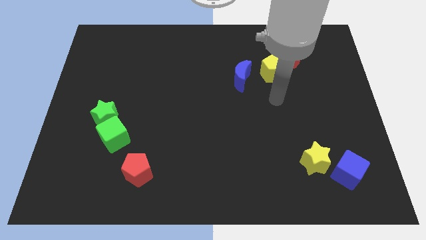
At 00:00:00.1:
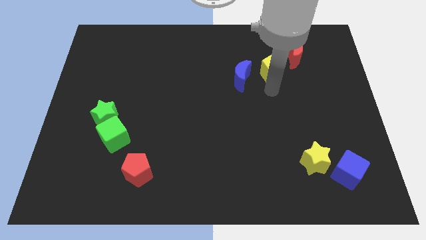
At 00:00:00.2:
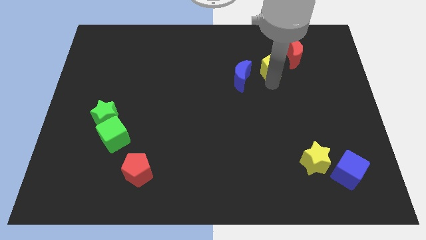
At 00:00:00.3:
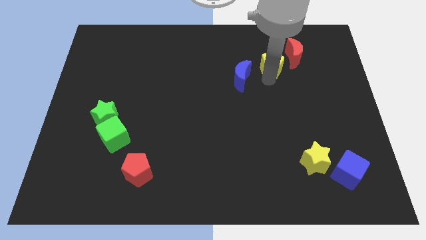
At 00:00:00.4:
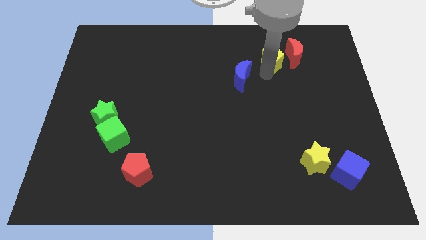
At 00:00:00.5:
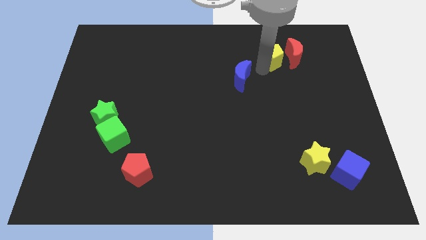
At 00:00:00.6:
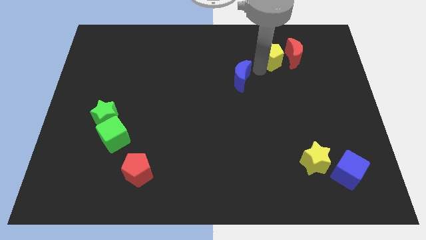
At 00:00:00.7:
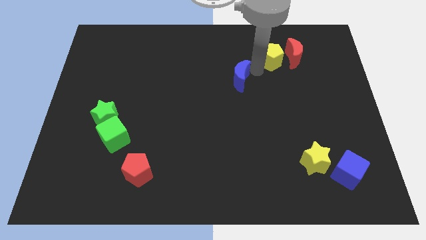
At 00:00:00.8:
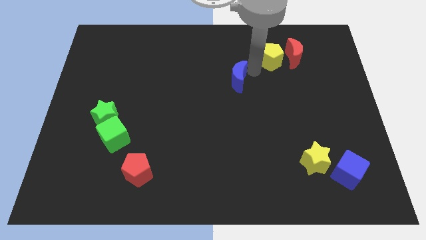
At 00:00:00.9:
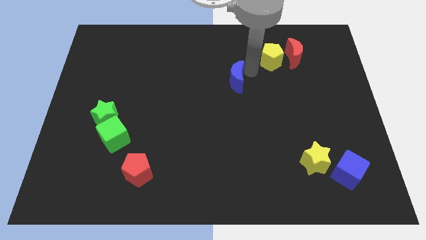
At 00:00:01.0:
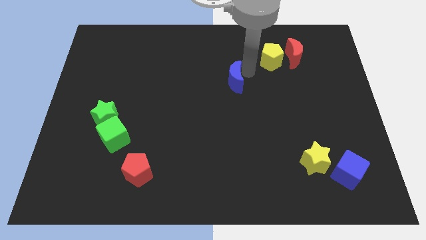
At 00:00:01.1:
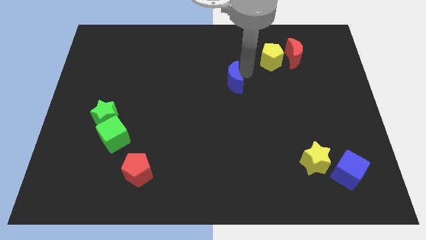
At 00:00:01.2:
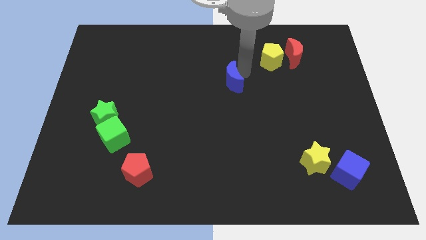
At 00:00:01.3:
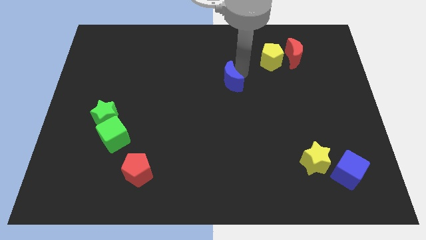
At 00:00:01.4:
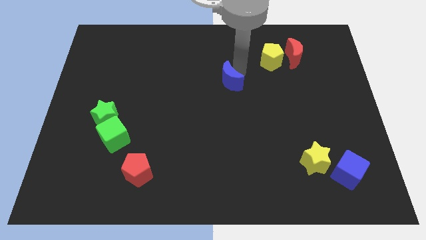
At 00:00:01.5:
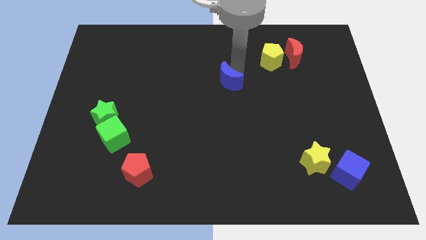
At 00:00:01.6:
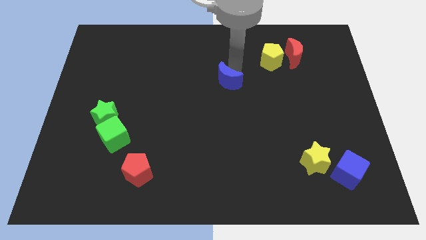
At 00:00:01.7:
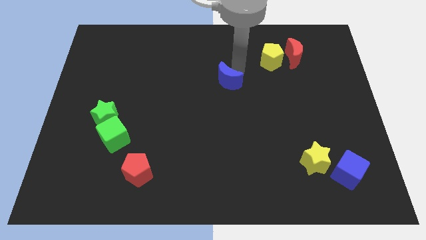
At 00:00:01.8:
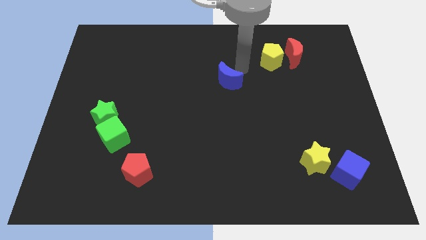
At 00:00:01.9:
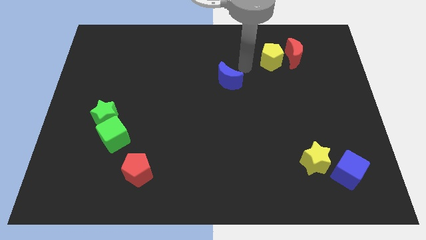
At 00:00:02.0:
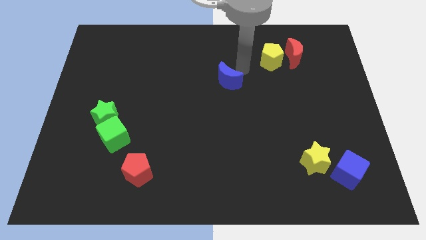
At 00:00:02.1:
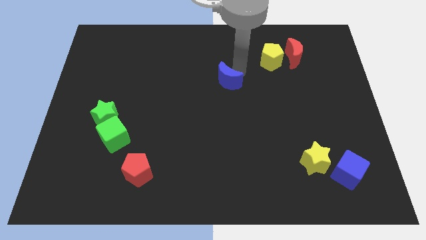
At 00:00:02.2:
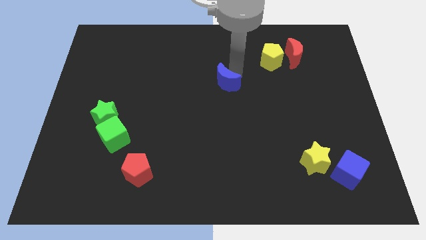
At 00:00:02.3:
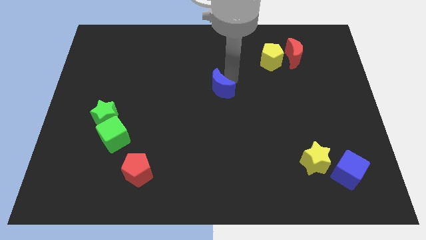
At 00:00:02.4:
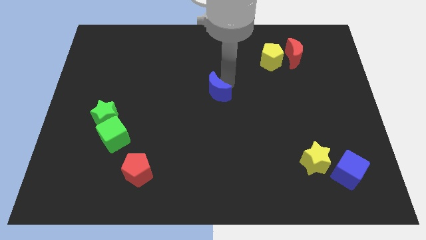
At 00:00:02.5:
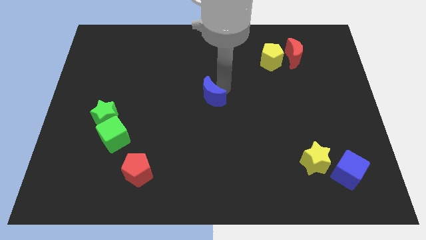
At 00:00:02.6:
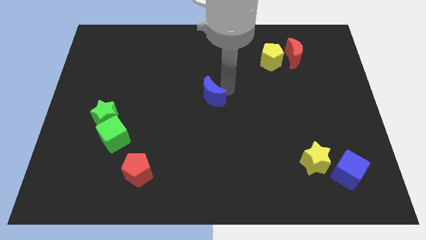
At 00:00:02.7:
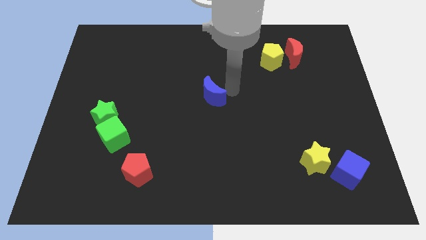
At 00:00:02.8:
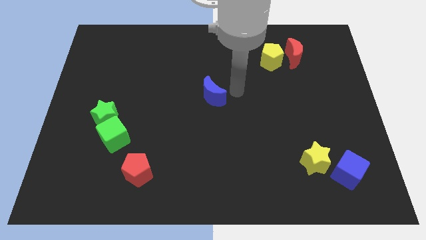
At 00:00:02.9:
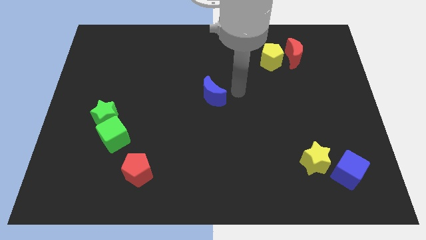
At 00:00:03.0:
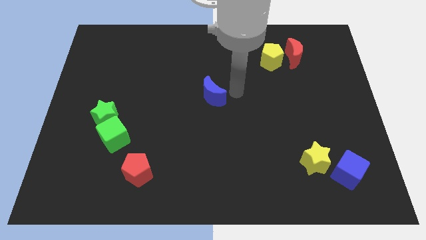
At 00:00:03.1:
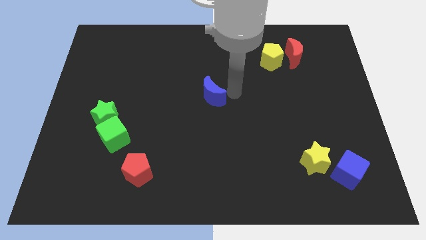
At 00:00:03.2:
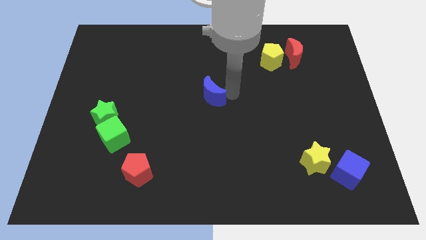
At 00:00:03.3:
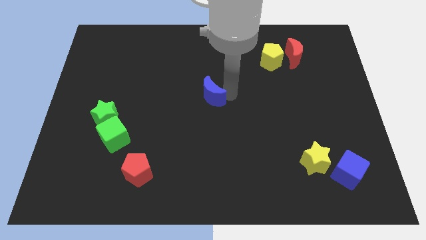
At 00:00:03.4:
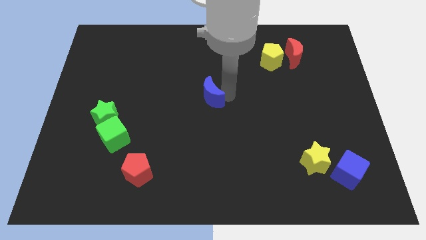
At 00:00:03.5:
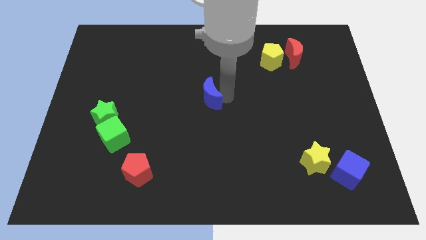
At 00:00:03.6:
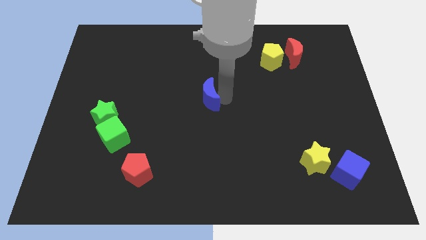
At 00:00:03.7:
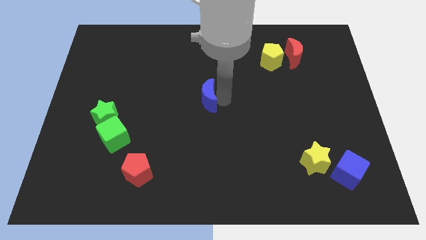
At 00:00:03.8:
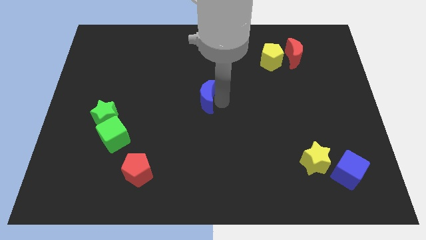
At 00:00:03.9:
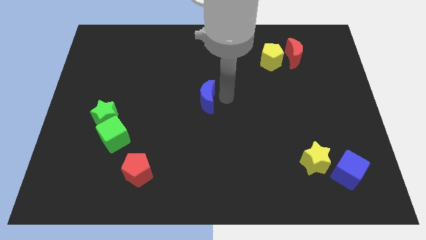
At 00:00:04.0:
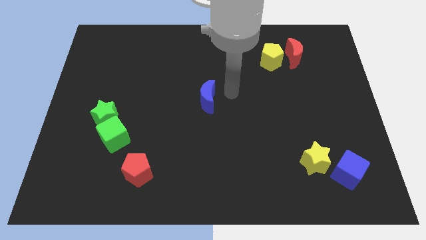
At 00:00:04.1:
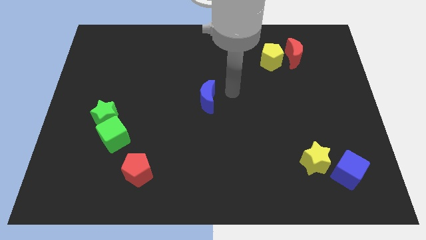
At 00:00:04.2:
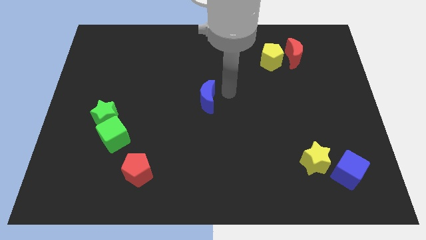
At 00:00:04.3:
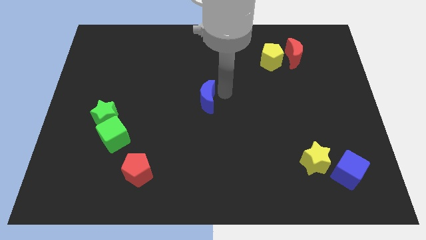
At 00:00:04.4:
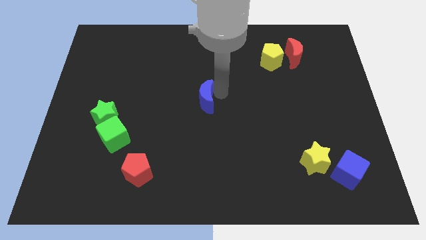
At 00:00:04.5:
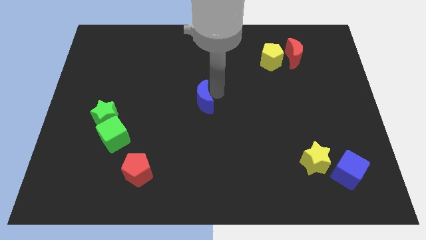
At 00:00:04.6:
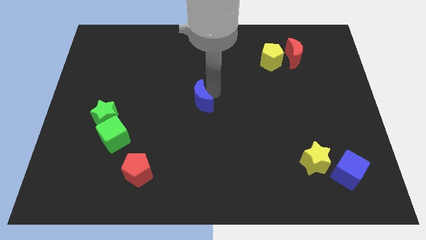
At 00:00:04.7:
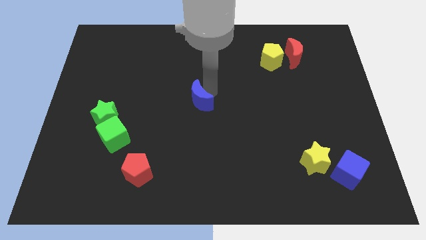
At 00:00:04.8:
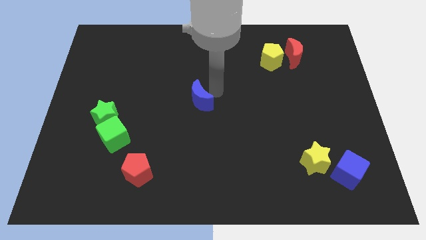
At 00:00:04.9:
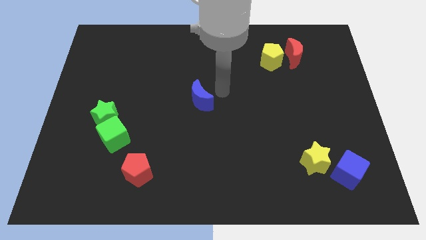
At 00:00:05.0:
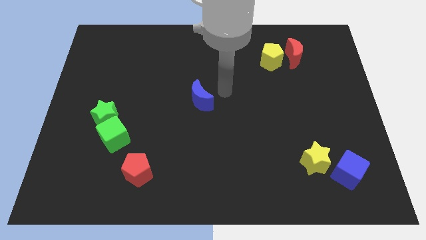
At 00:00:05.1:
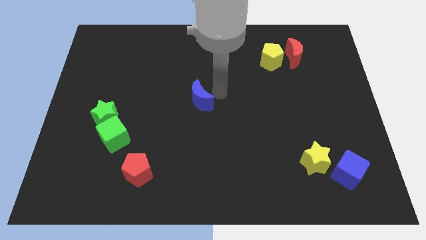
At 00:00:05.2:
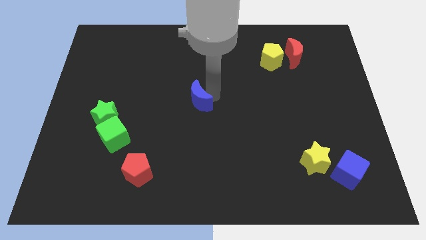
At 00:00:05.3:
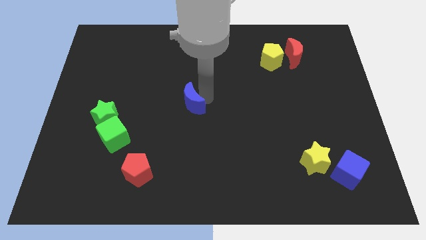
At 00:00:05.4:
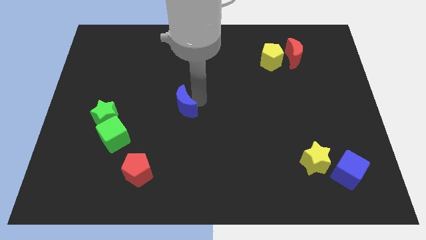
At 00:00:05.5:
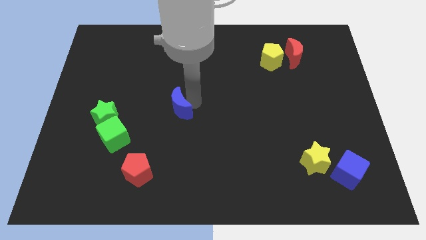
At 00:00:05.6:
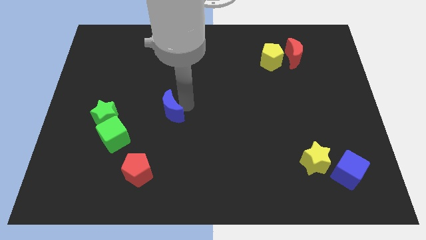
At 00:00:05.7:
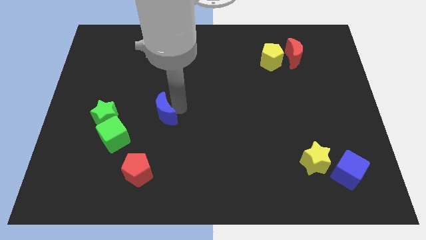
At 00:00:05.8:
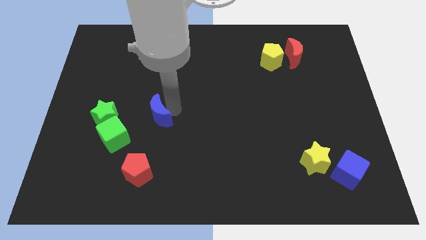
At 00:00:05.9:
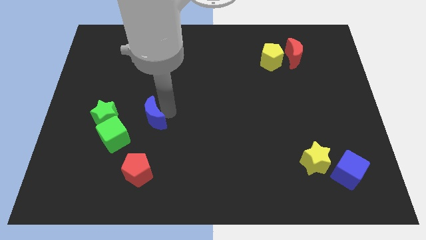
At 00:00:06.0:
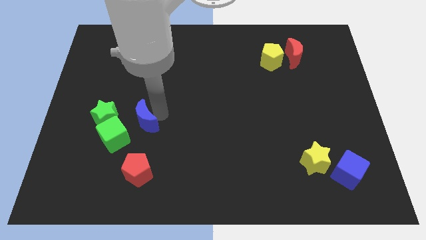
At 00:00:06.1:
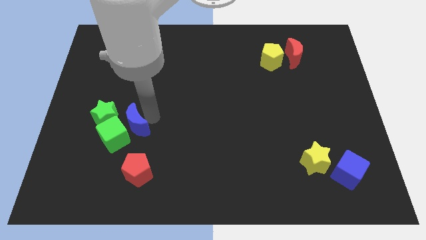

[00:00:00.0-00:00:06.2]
push the blue moon towards the green cube

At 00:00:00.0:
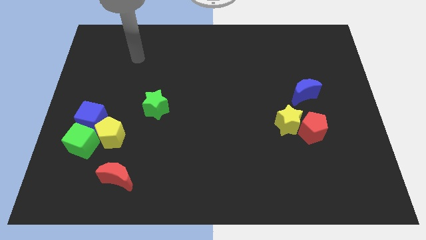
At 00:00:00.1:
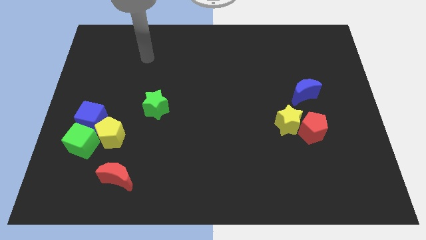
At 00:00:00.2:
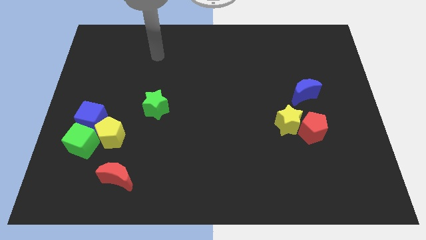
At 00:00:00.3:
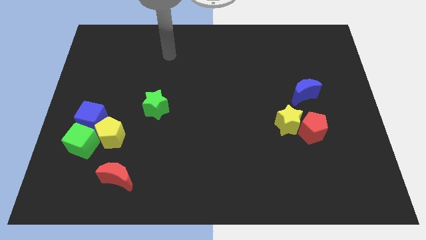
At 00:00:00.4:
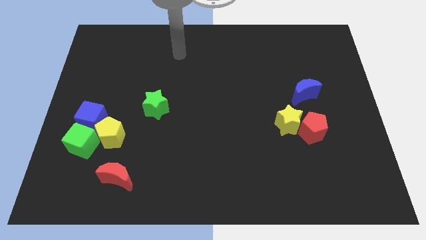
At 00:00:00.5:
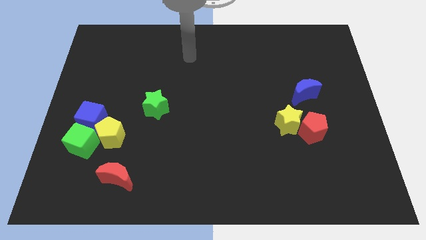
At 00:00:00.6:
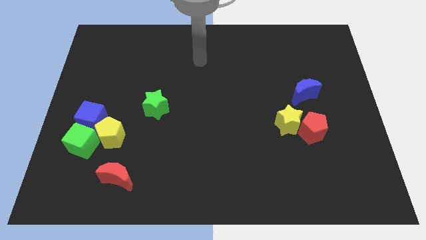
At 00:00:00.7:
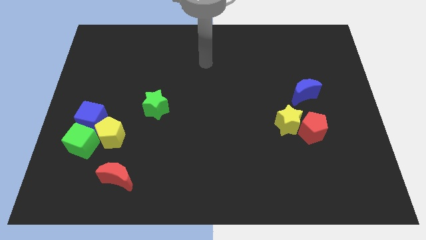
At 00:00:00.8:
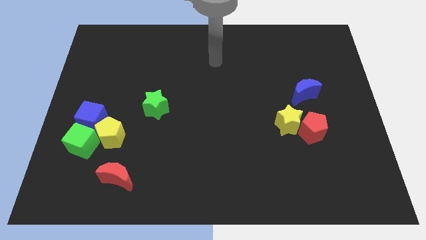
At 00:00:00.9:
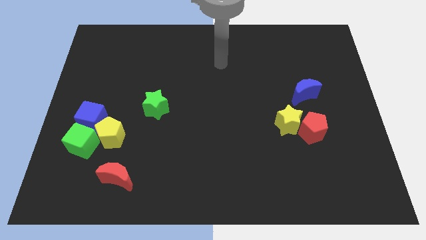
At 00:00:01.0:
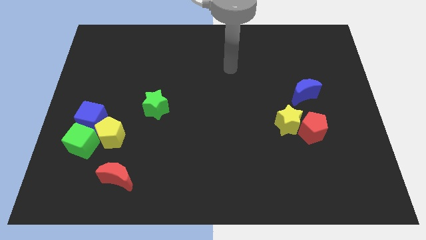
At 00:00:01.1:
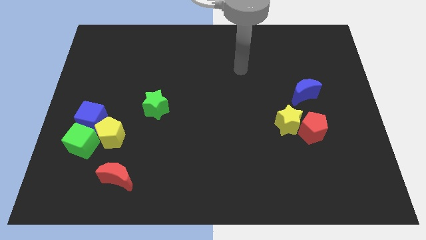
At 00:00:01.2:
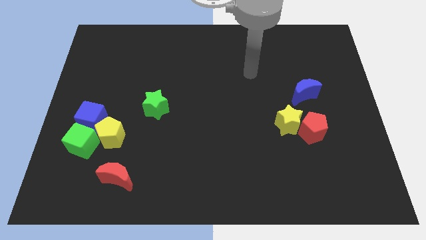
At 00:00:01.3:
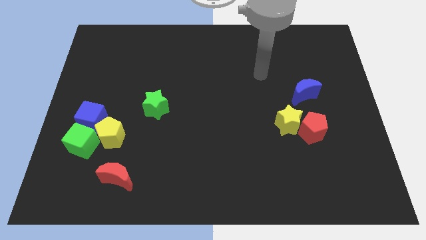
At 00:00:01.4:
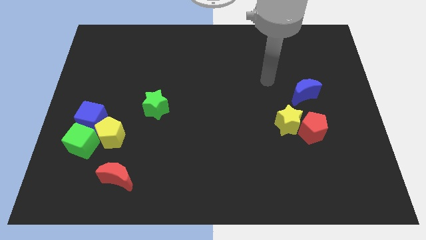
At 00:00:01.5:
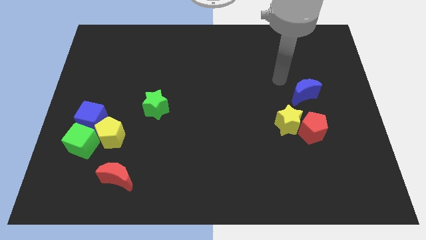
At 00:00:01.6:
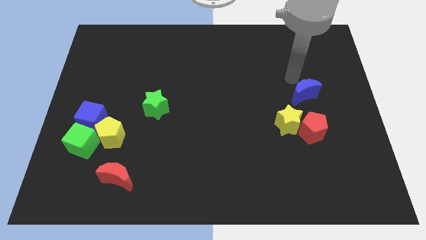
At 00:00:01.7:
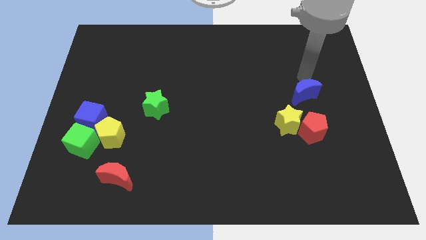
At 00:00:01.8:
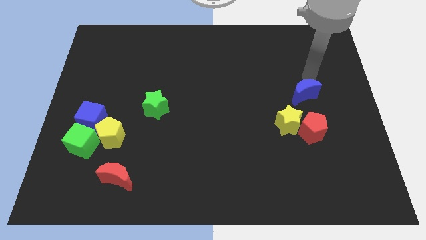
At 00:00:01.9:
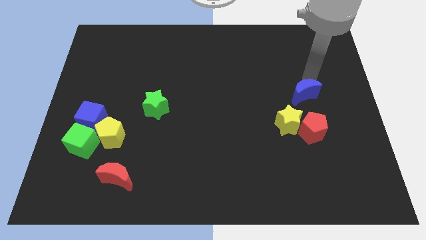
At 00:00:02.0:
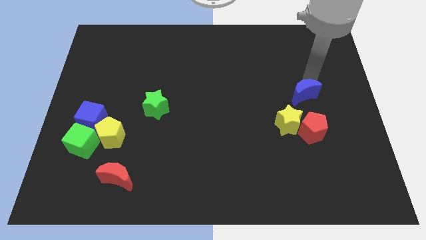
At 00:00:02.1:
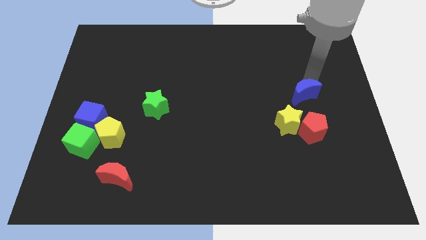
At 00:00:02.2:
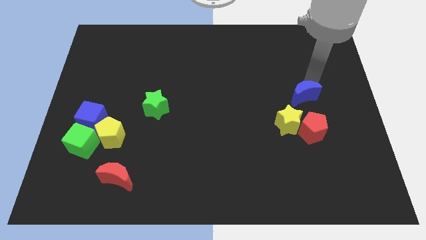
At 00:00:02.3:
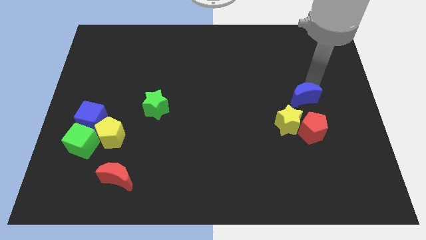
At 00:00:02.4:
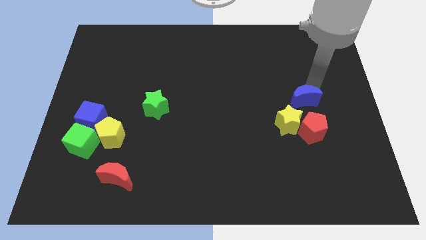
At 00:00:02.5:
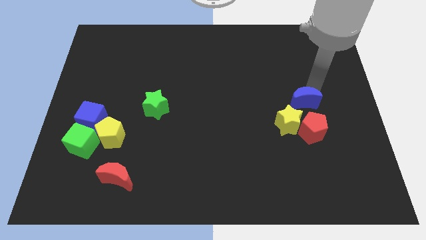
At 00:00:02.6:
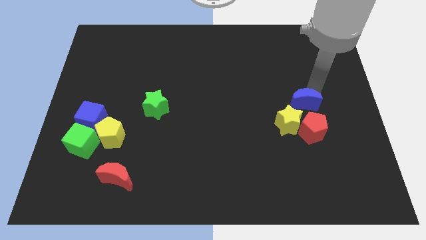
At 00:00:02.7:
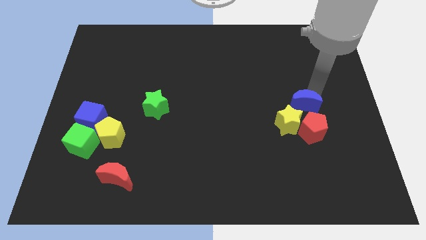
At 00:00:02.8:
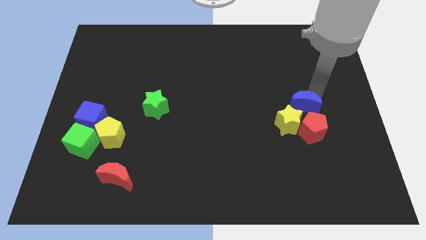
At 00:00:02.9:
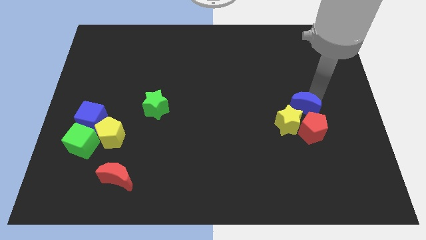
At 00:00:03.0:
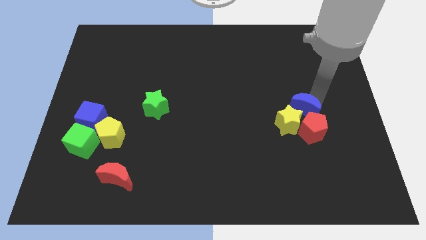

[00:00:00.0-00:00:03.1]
put the blue moon next to the yellow star
